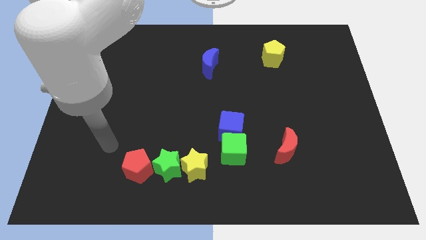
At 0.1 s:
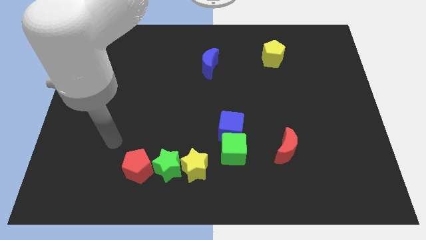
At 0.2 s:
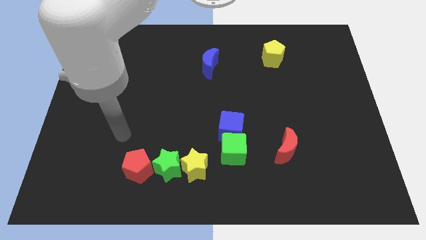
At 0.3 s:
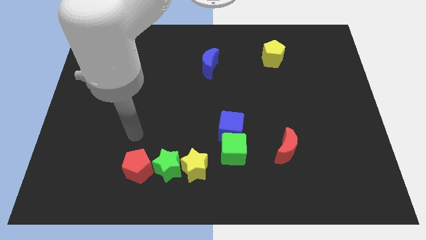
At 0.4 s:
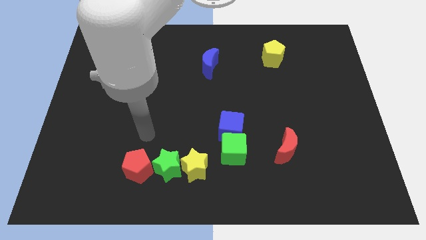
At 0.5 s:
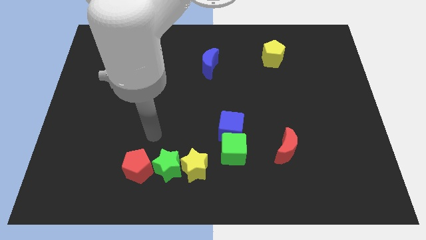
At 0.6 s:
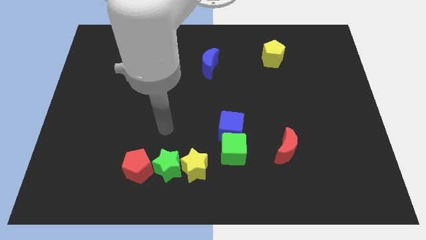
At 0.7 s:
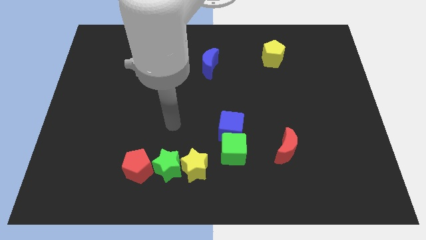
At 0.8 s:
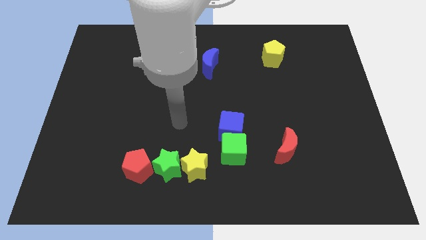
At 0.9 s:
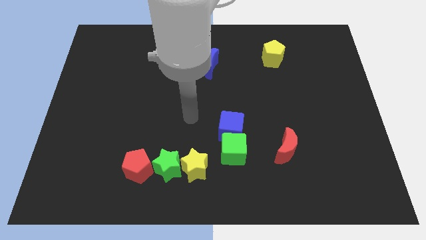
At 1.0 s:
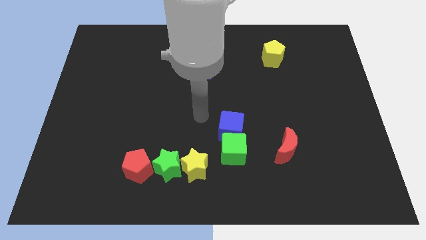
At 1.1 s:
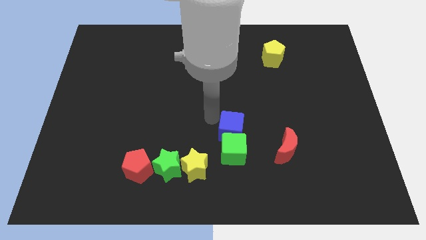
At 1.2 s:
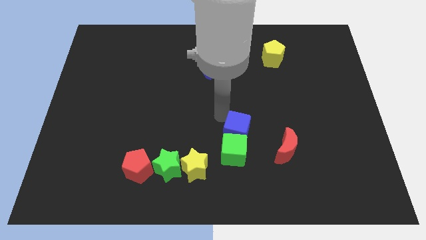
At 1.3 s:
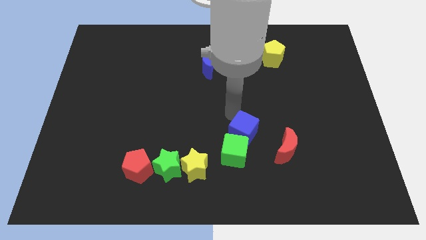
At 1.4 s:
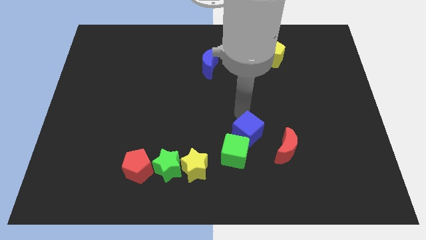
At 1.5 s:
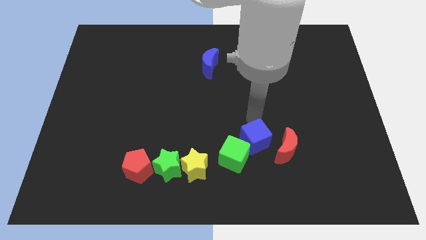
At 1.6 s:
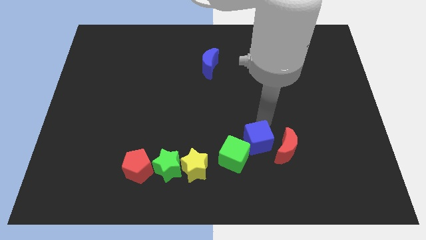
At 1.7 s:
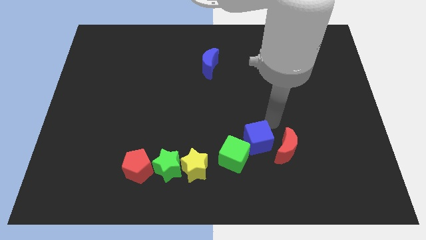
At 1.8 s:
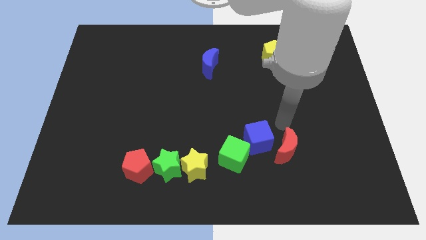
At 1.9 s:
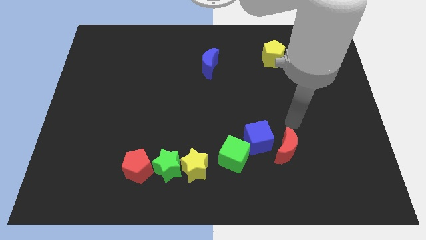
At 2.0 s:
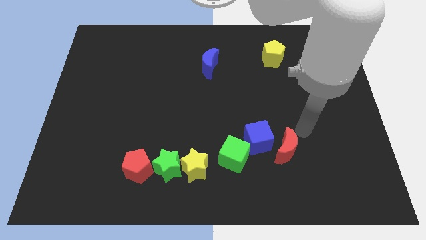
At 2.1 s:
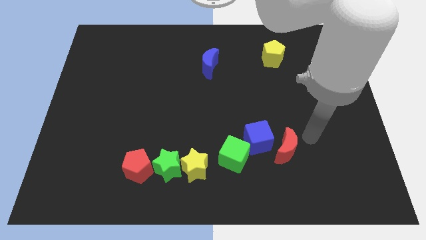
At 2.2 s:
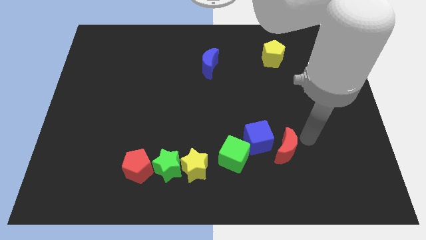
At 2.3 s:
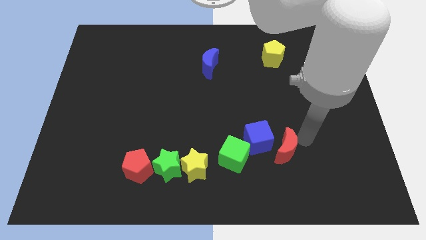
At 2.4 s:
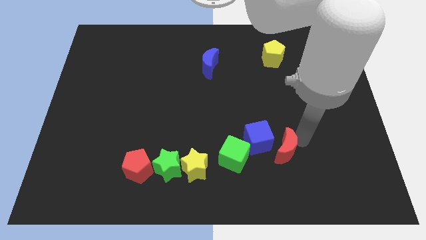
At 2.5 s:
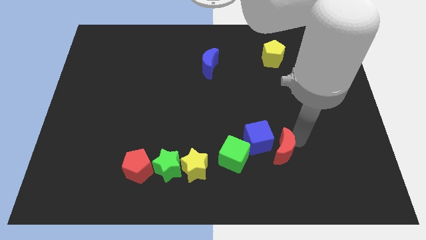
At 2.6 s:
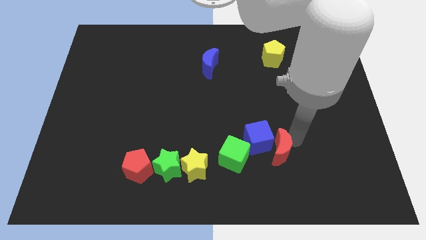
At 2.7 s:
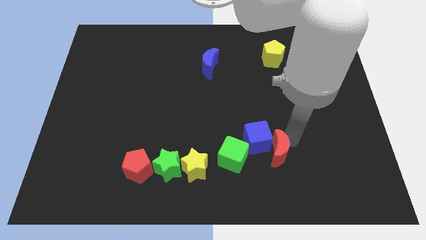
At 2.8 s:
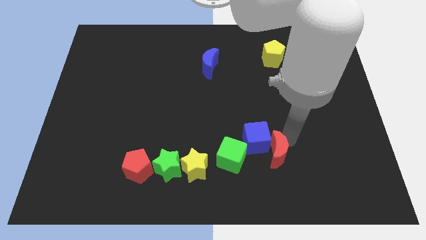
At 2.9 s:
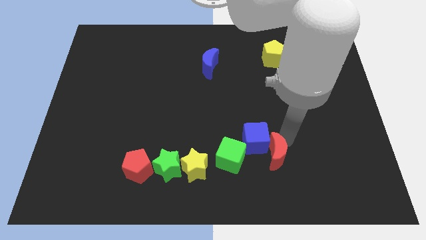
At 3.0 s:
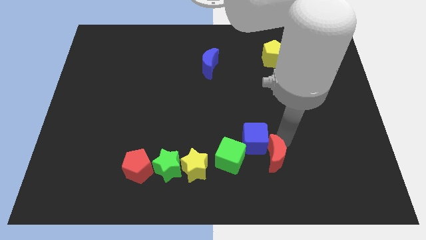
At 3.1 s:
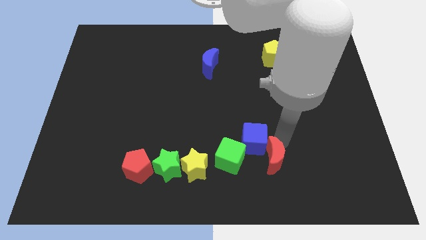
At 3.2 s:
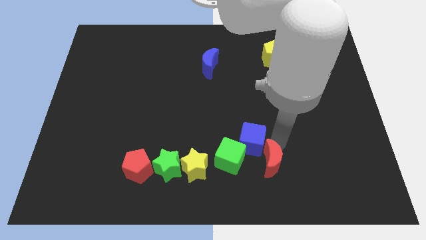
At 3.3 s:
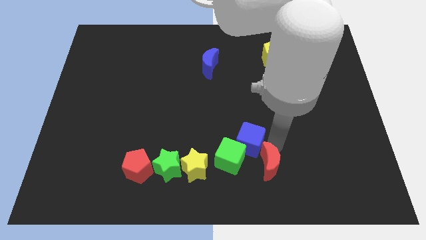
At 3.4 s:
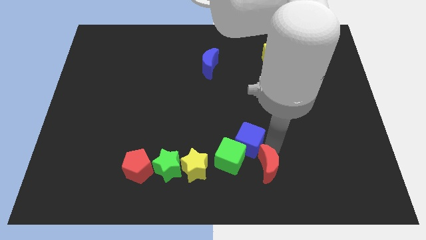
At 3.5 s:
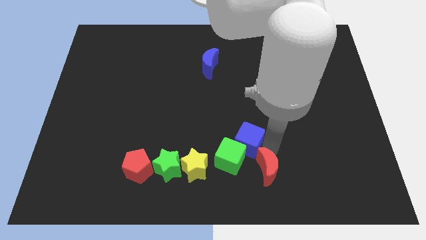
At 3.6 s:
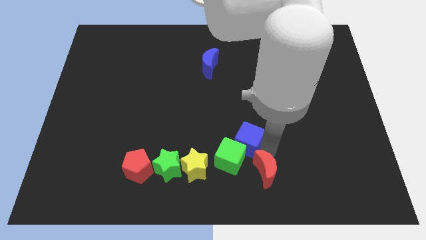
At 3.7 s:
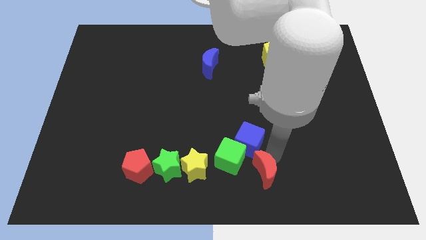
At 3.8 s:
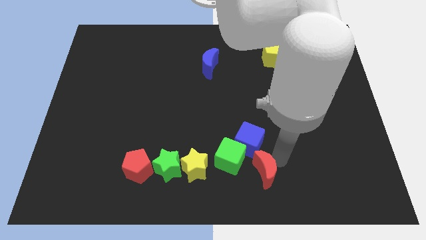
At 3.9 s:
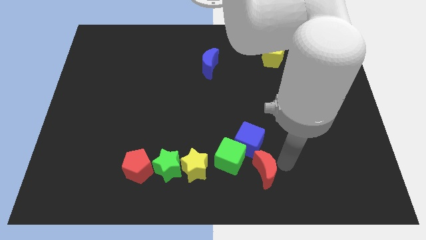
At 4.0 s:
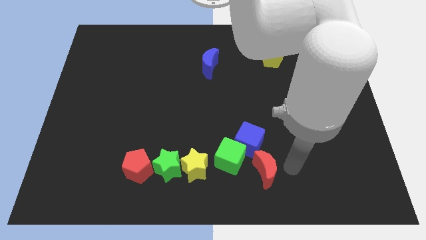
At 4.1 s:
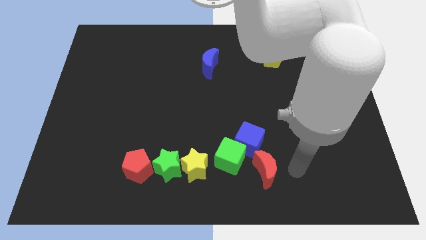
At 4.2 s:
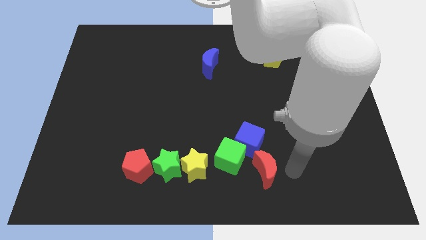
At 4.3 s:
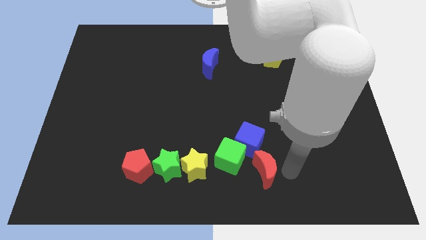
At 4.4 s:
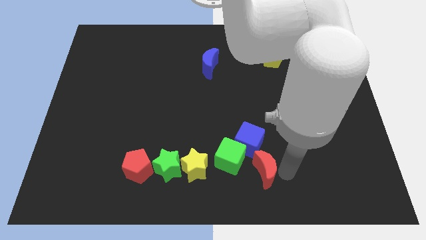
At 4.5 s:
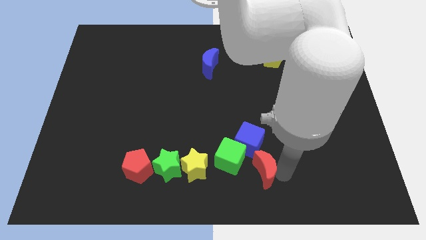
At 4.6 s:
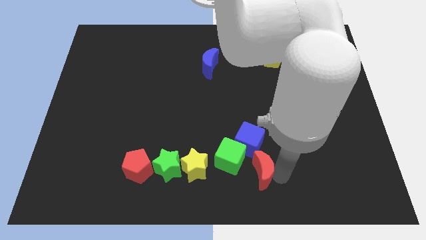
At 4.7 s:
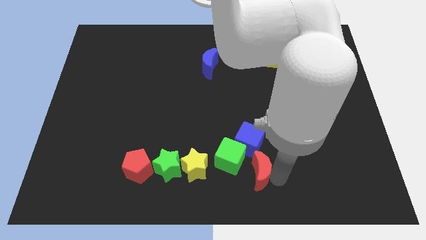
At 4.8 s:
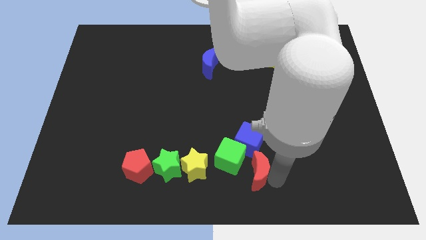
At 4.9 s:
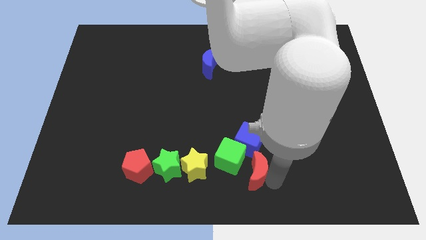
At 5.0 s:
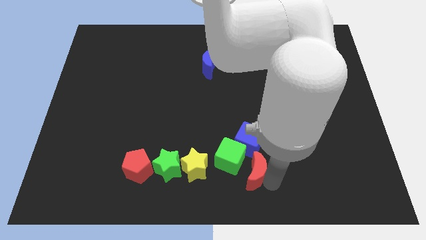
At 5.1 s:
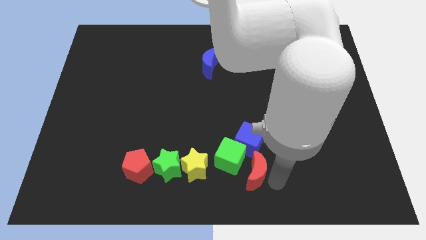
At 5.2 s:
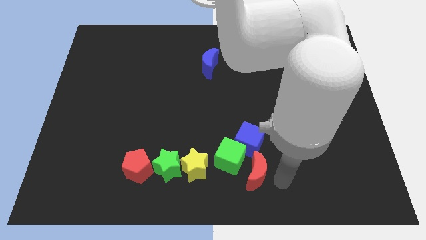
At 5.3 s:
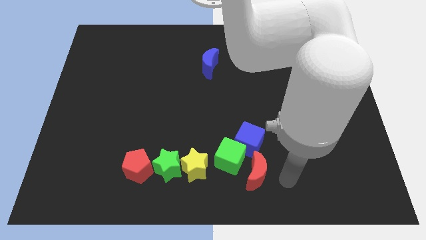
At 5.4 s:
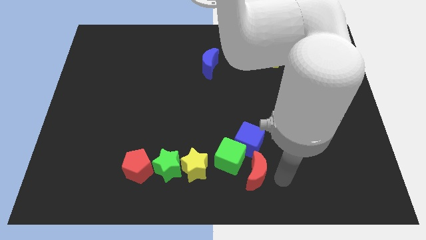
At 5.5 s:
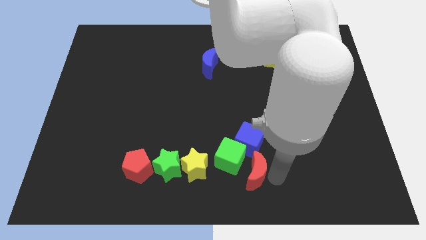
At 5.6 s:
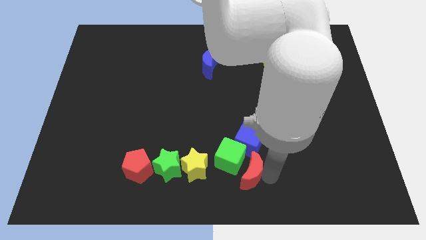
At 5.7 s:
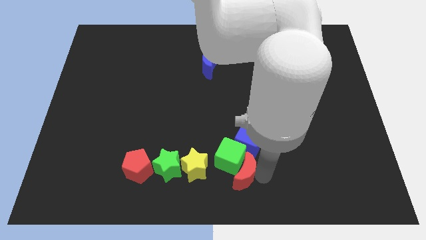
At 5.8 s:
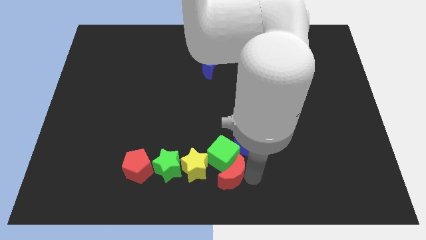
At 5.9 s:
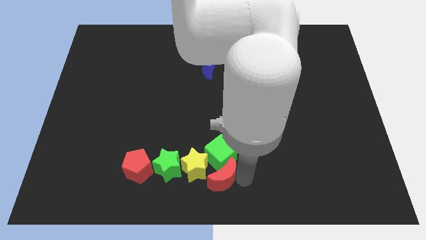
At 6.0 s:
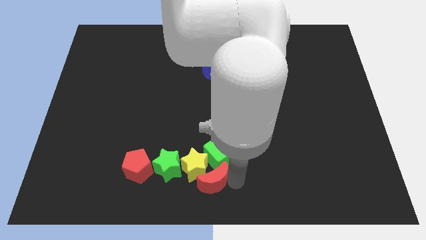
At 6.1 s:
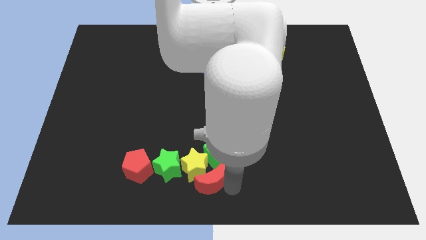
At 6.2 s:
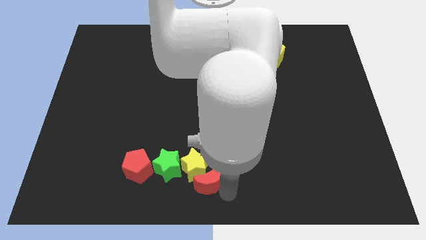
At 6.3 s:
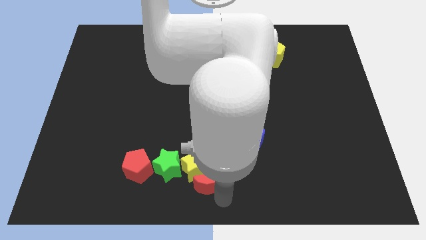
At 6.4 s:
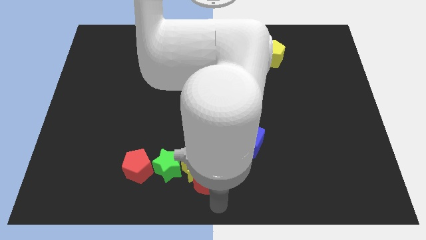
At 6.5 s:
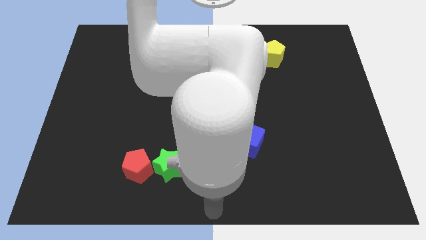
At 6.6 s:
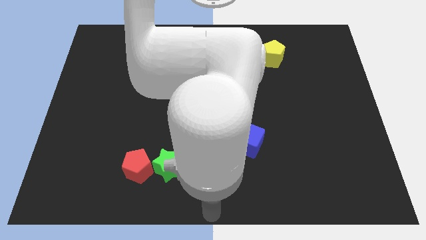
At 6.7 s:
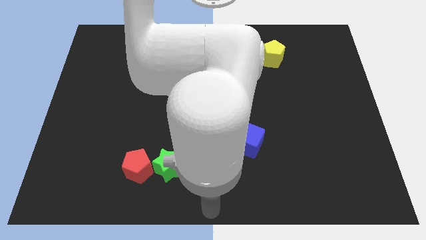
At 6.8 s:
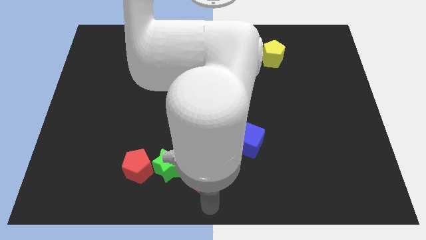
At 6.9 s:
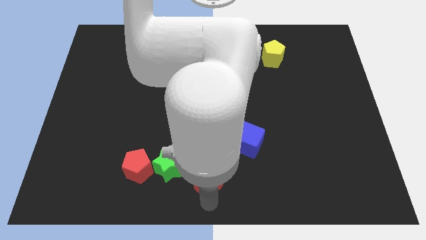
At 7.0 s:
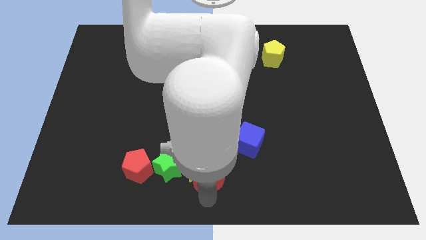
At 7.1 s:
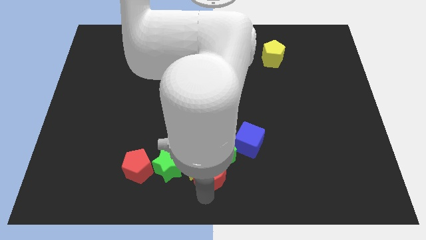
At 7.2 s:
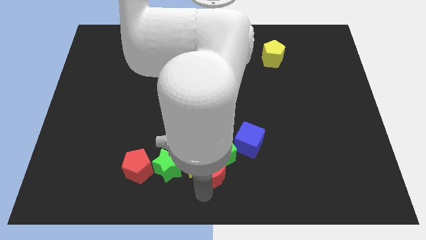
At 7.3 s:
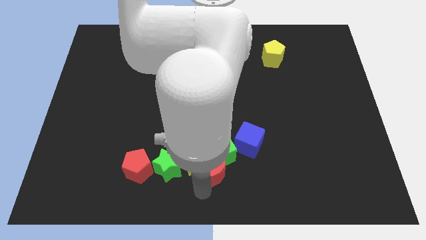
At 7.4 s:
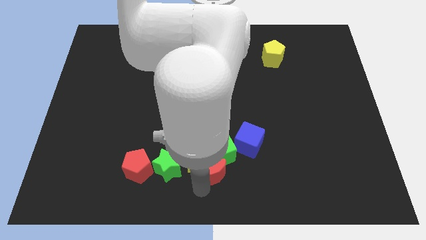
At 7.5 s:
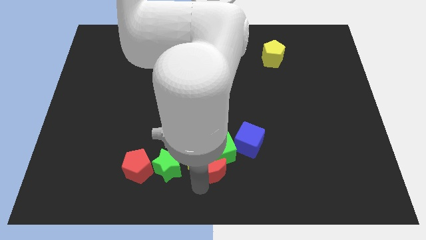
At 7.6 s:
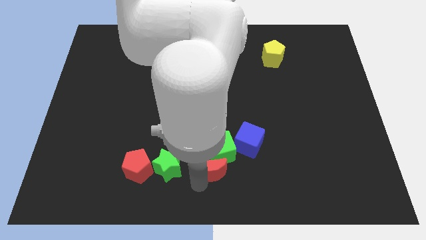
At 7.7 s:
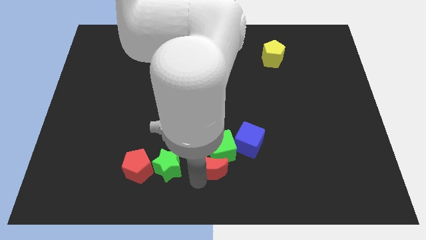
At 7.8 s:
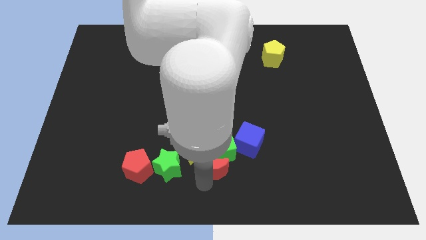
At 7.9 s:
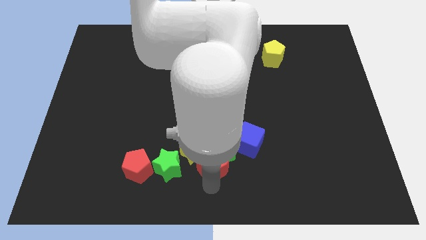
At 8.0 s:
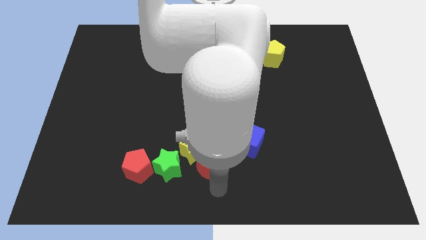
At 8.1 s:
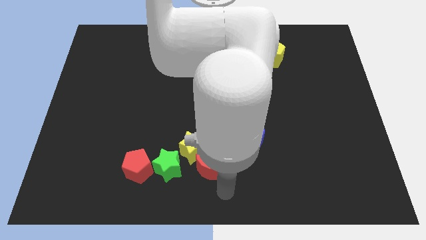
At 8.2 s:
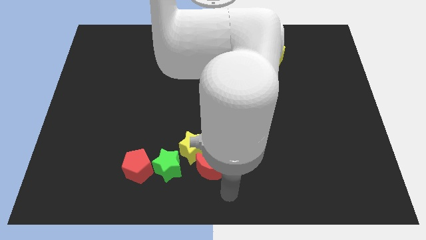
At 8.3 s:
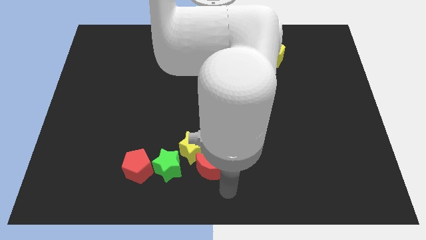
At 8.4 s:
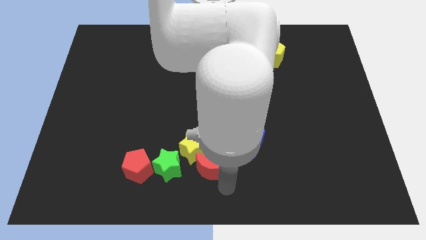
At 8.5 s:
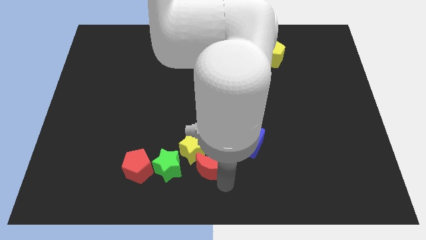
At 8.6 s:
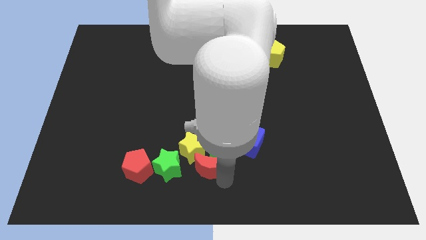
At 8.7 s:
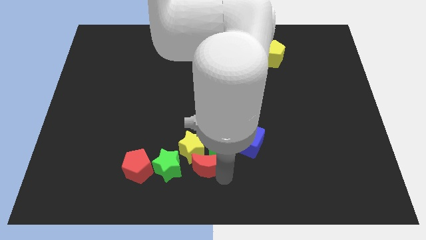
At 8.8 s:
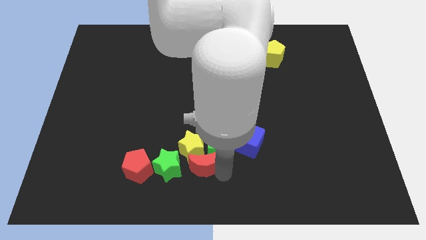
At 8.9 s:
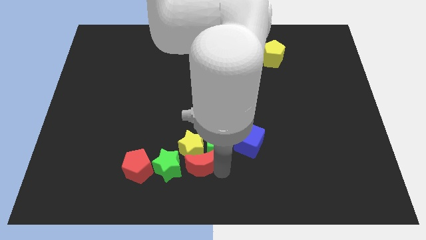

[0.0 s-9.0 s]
push the red moon to the top right of the green star
